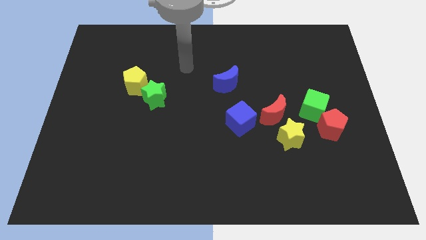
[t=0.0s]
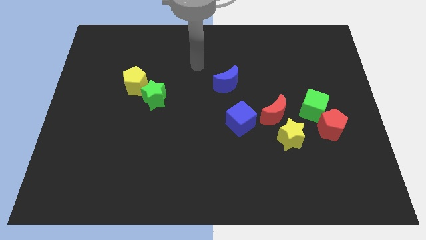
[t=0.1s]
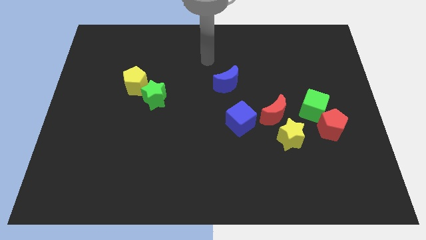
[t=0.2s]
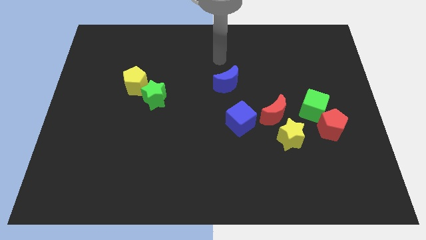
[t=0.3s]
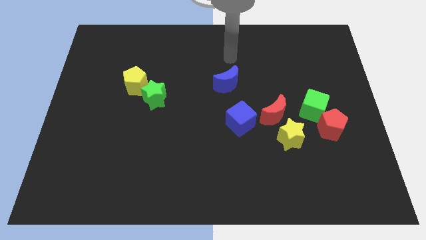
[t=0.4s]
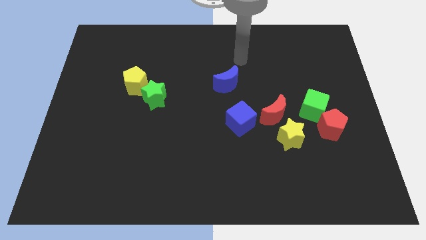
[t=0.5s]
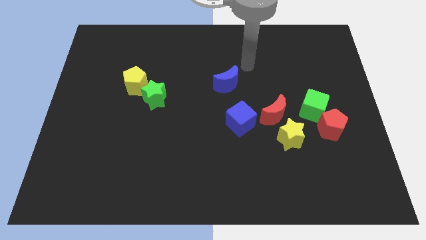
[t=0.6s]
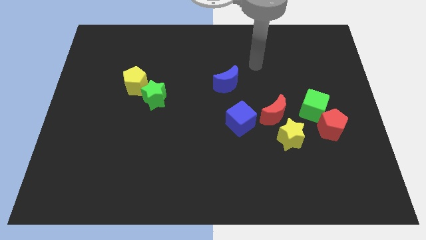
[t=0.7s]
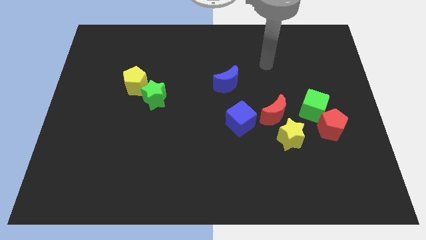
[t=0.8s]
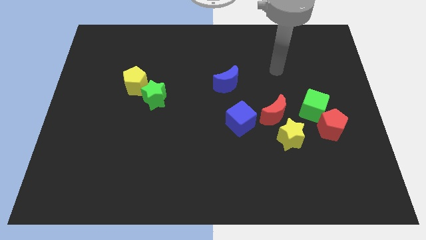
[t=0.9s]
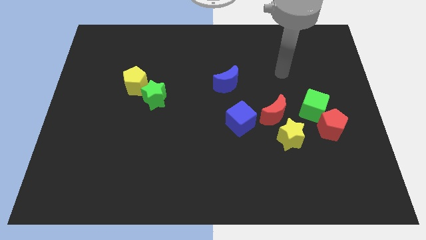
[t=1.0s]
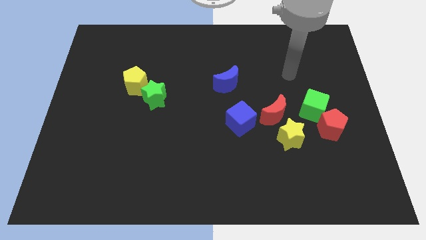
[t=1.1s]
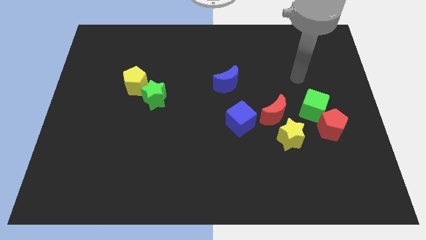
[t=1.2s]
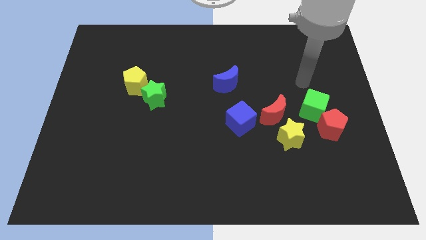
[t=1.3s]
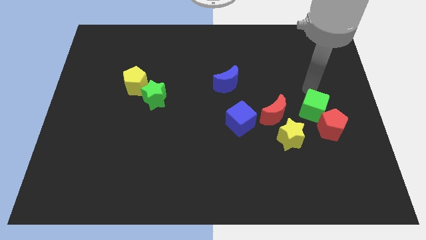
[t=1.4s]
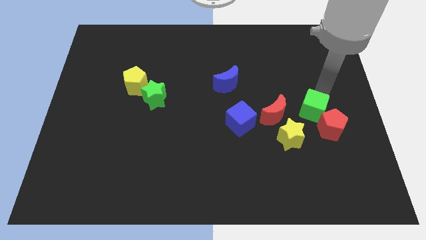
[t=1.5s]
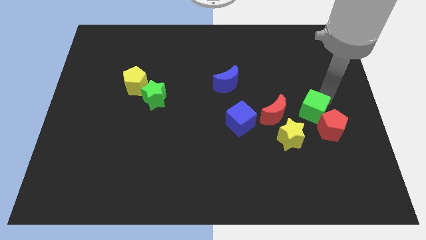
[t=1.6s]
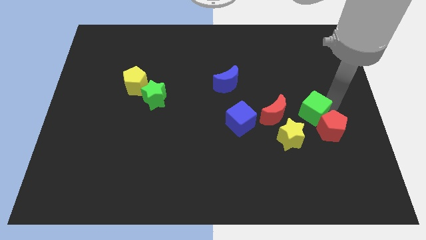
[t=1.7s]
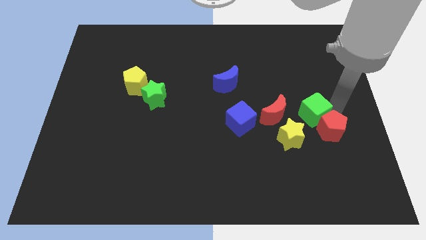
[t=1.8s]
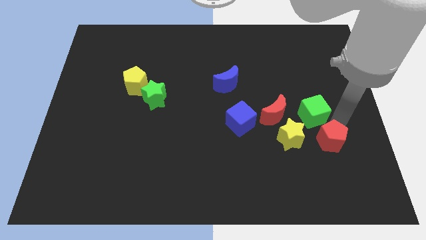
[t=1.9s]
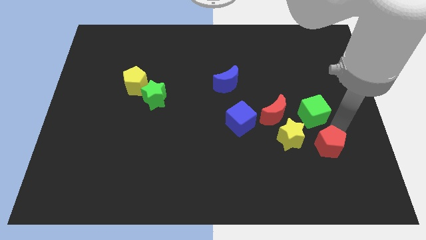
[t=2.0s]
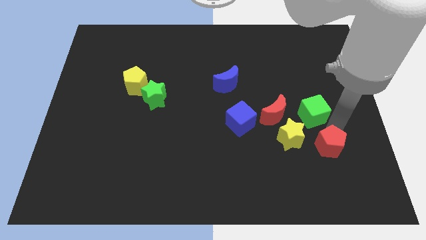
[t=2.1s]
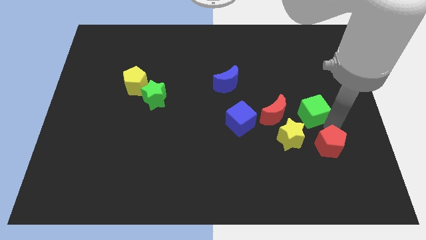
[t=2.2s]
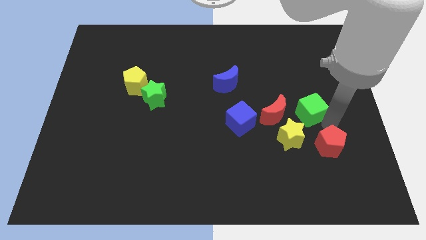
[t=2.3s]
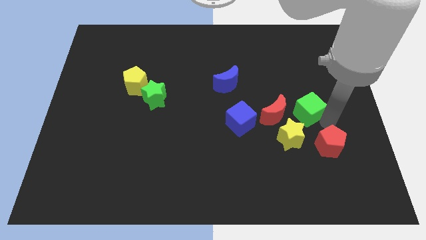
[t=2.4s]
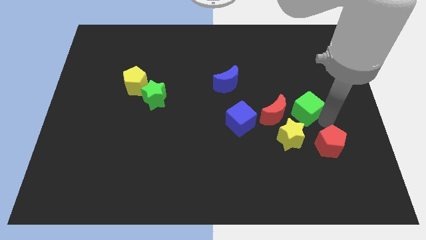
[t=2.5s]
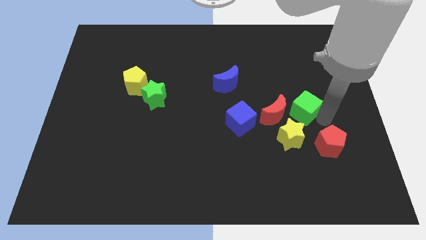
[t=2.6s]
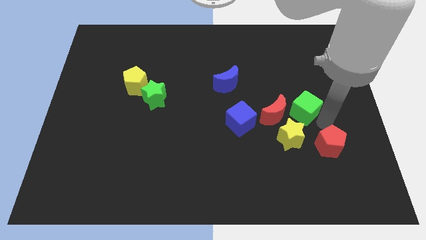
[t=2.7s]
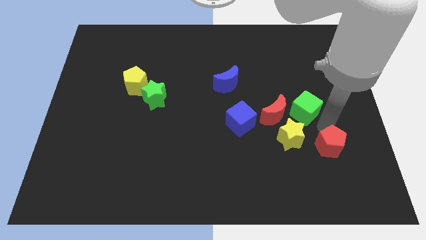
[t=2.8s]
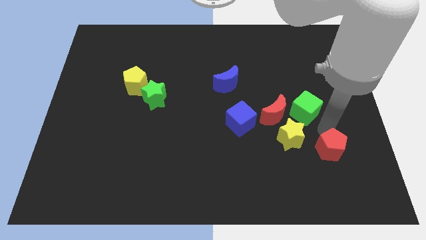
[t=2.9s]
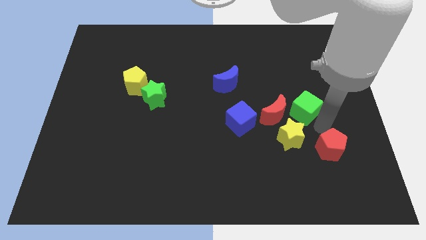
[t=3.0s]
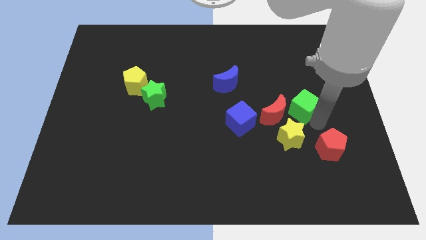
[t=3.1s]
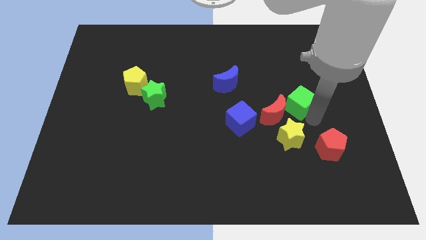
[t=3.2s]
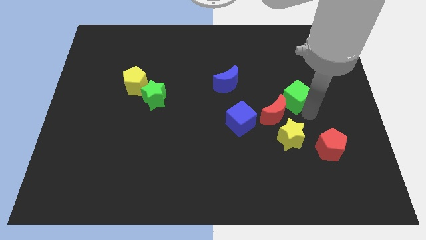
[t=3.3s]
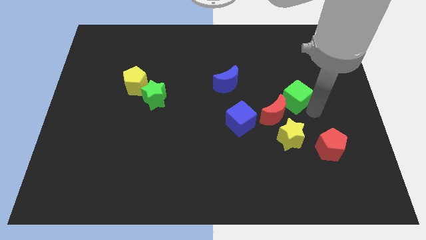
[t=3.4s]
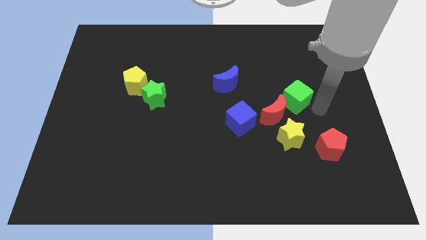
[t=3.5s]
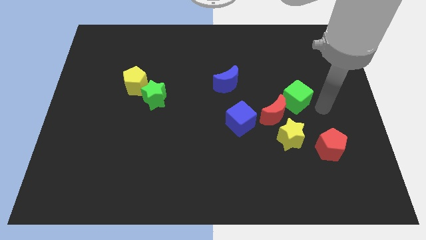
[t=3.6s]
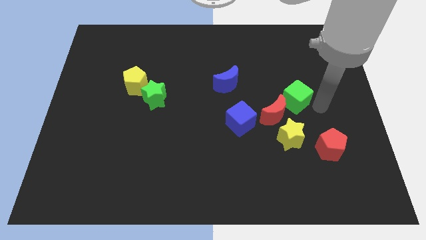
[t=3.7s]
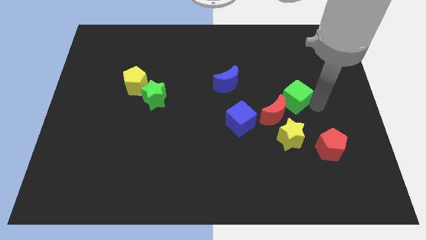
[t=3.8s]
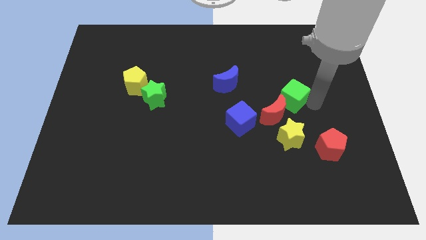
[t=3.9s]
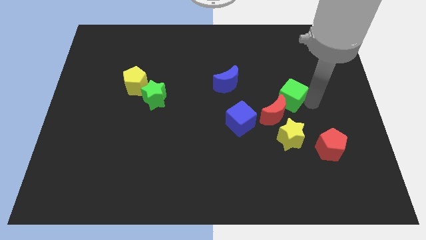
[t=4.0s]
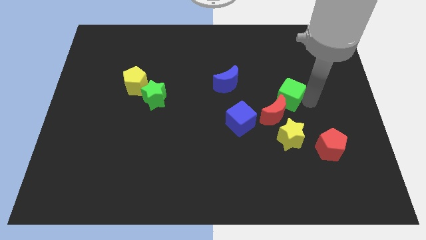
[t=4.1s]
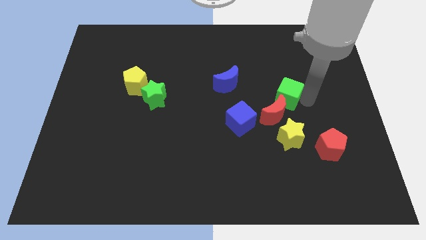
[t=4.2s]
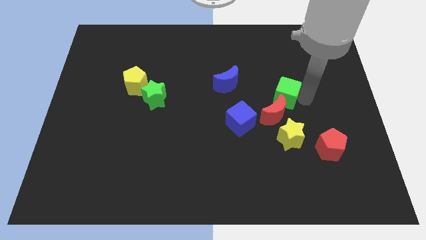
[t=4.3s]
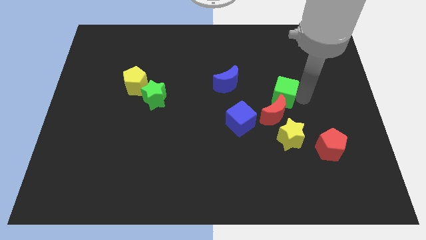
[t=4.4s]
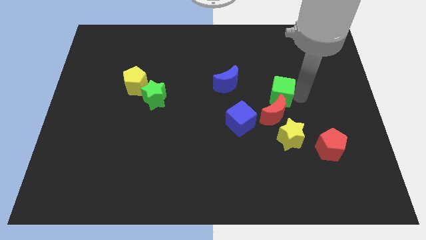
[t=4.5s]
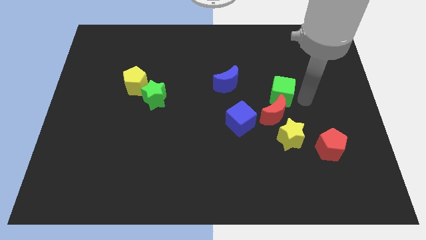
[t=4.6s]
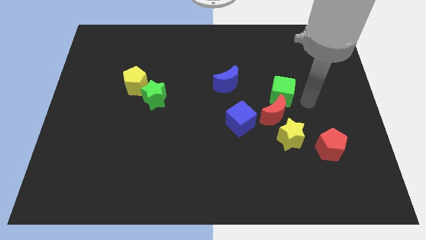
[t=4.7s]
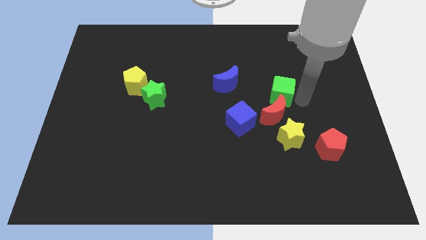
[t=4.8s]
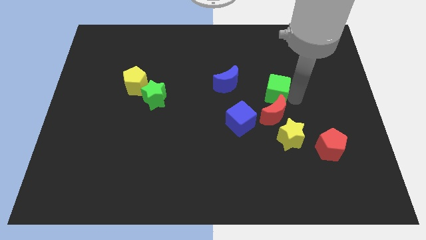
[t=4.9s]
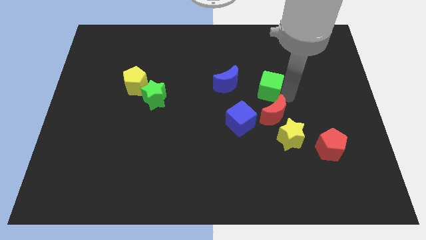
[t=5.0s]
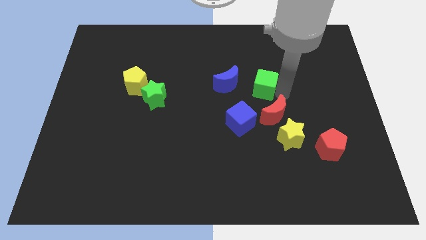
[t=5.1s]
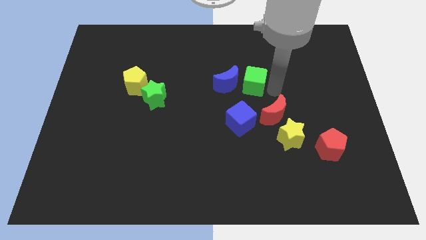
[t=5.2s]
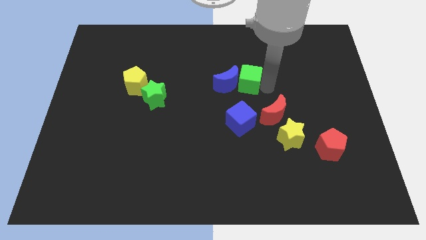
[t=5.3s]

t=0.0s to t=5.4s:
move the green cube next to the blue moon

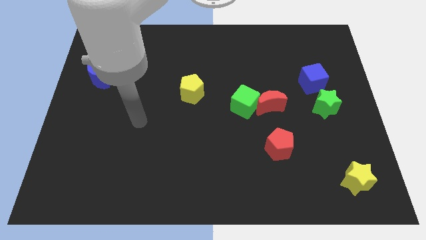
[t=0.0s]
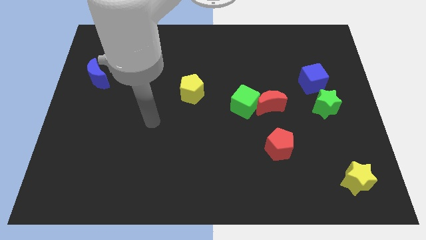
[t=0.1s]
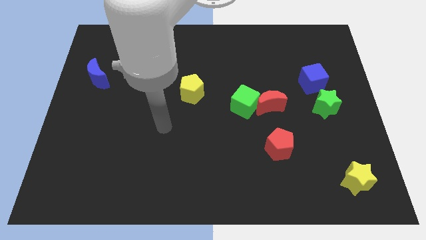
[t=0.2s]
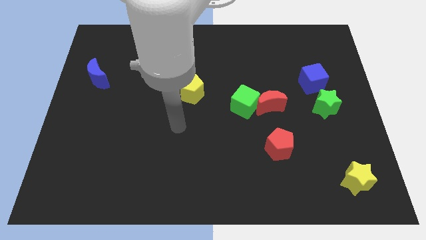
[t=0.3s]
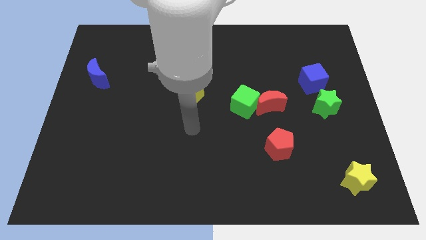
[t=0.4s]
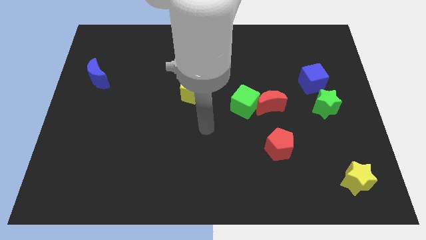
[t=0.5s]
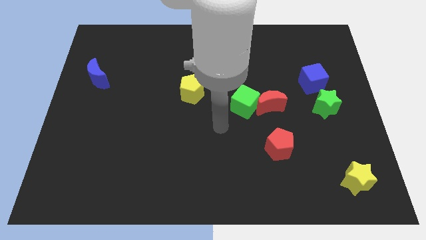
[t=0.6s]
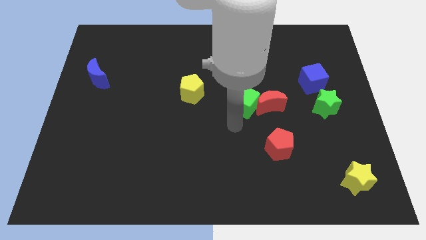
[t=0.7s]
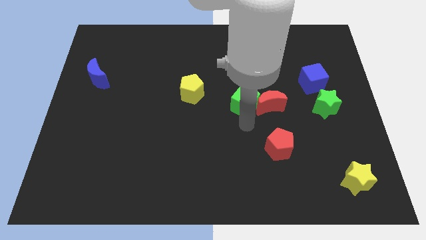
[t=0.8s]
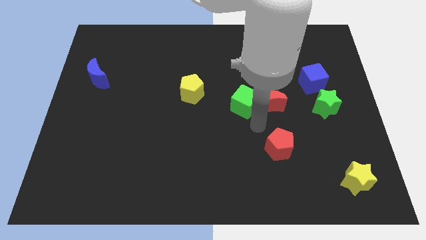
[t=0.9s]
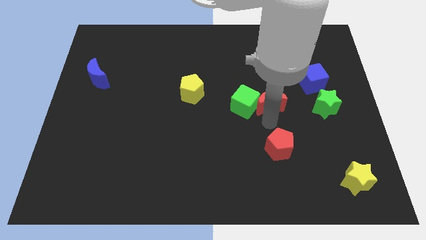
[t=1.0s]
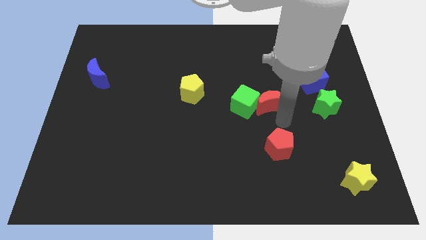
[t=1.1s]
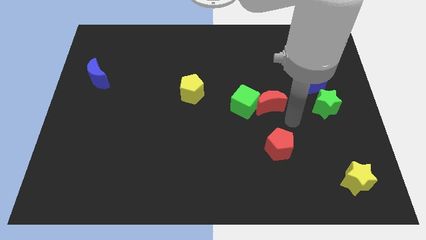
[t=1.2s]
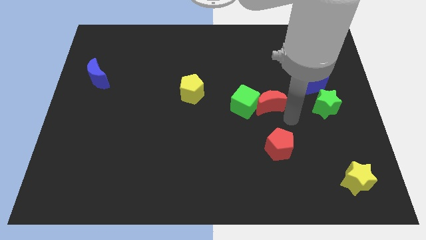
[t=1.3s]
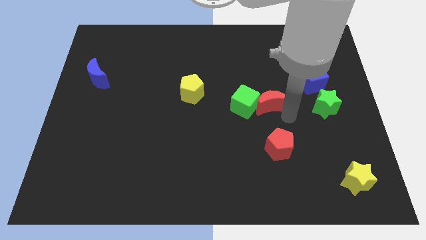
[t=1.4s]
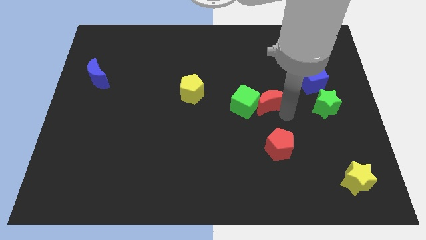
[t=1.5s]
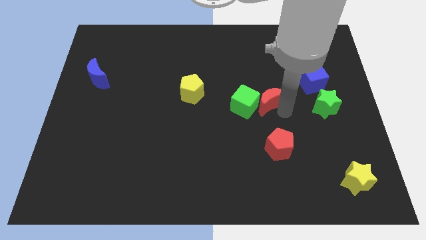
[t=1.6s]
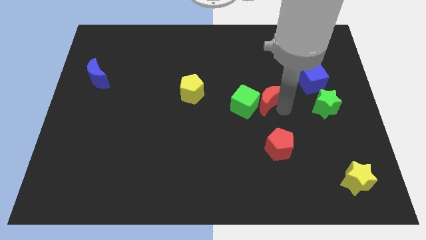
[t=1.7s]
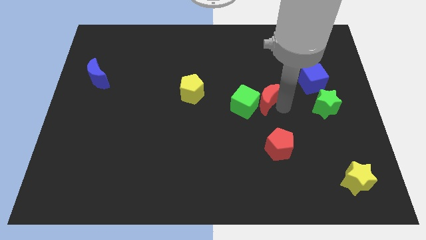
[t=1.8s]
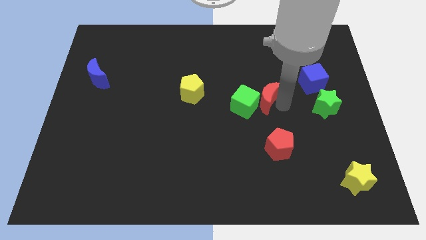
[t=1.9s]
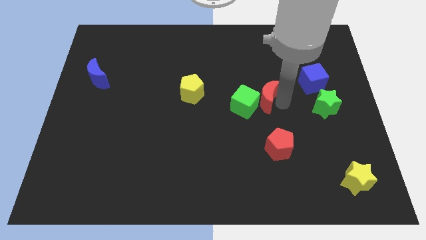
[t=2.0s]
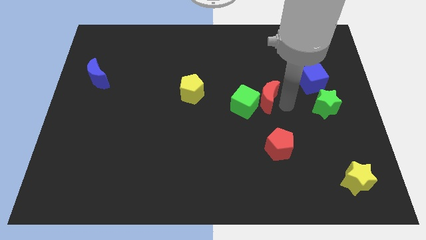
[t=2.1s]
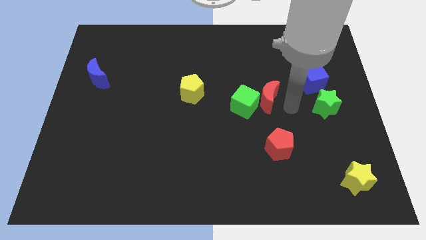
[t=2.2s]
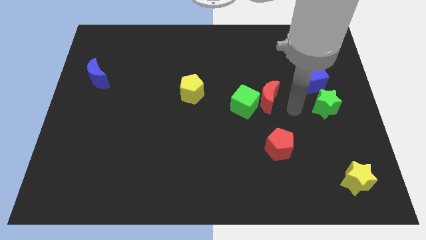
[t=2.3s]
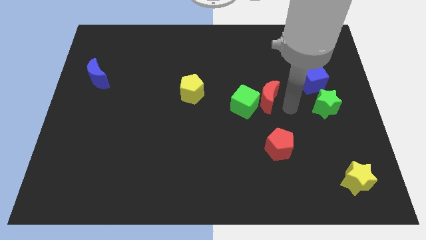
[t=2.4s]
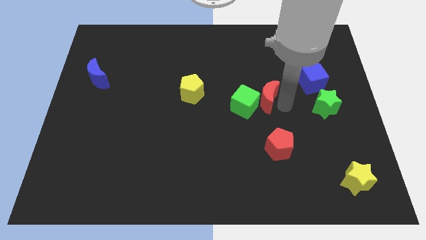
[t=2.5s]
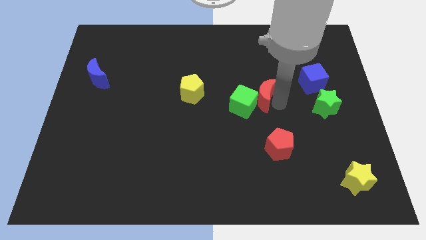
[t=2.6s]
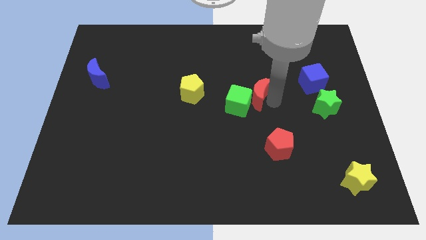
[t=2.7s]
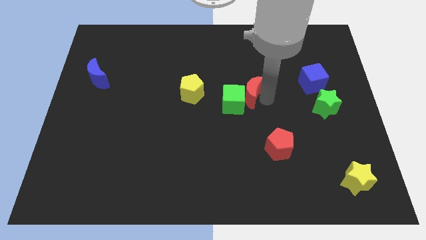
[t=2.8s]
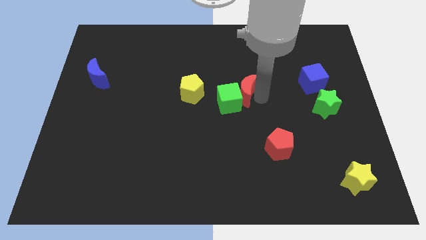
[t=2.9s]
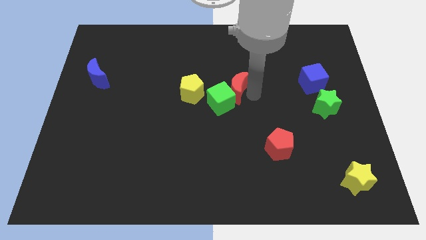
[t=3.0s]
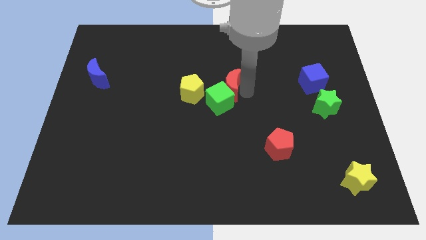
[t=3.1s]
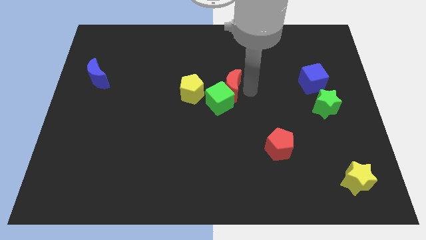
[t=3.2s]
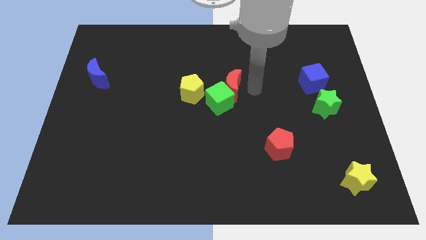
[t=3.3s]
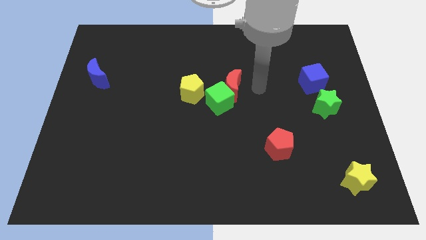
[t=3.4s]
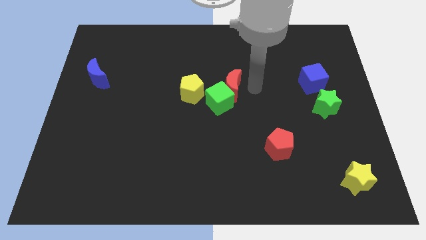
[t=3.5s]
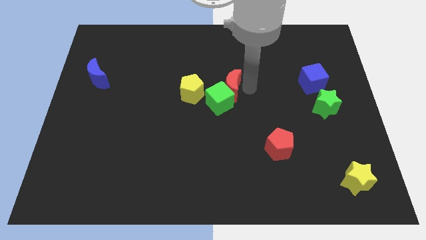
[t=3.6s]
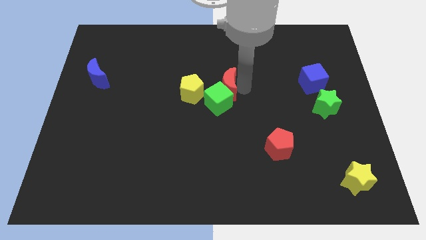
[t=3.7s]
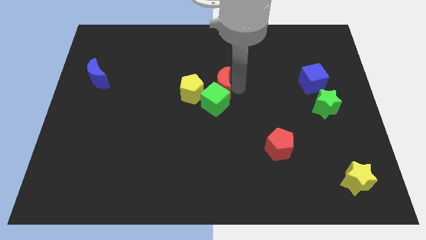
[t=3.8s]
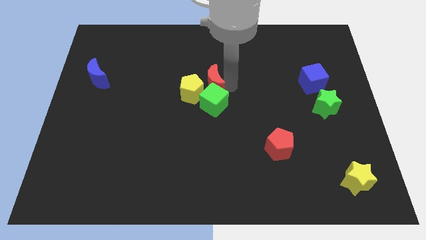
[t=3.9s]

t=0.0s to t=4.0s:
put the red moon to the yellow pentagon
